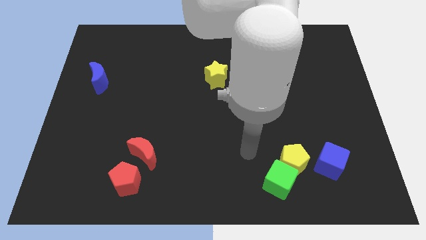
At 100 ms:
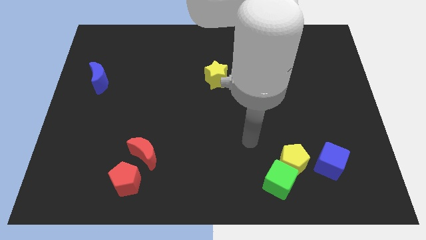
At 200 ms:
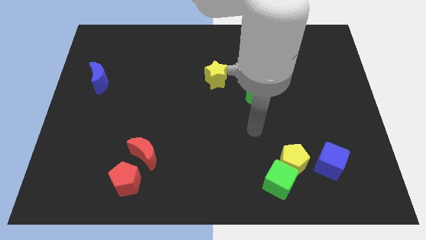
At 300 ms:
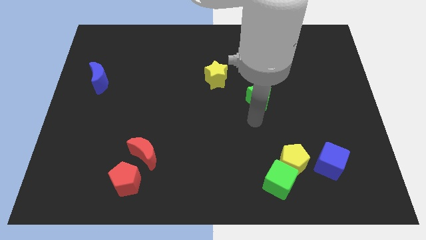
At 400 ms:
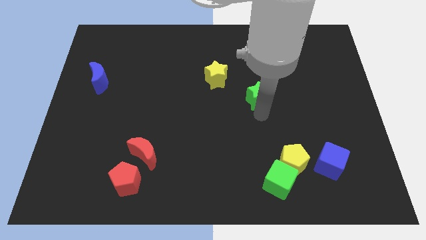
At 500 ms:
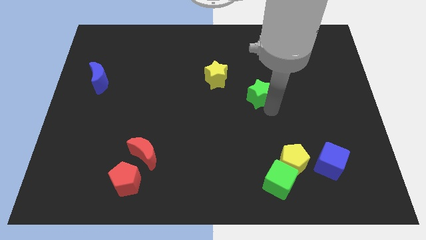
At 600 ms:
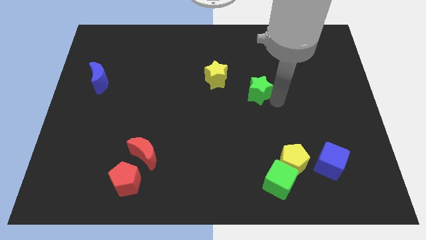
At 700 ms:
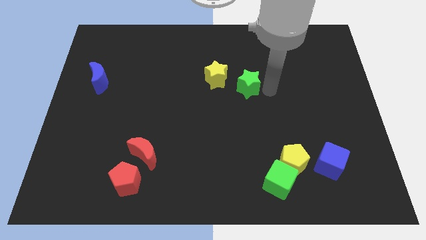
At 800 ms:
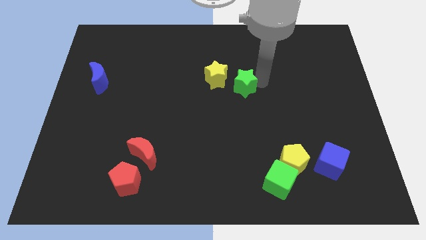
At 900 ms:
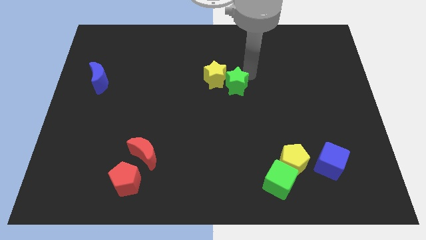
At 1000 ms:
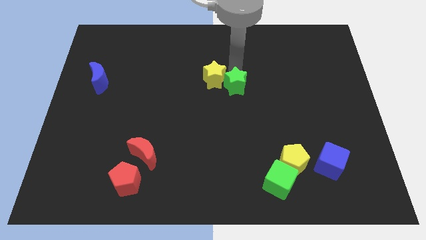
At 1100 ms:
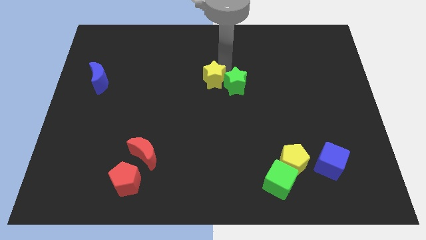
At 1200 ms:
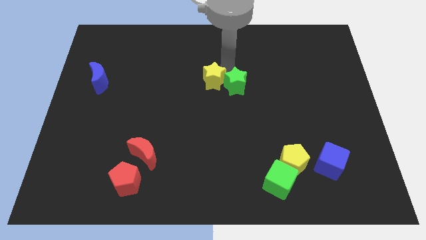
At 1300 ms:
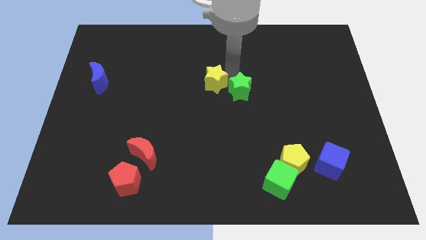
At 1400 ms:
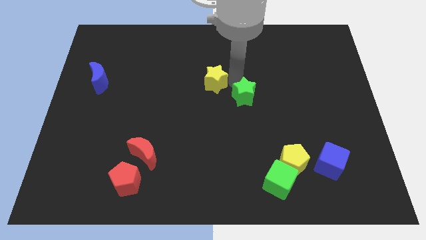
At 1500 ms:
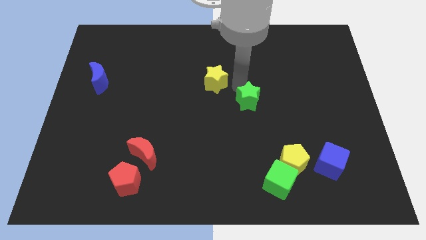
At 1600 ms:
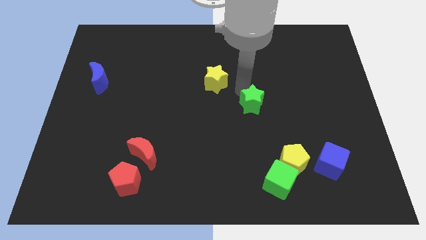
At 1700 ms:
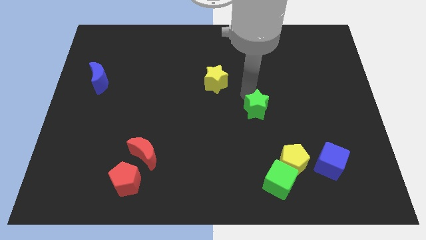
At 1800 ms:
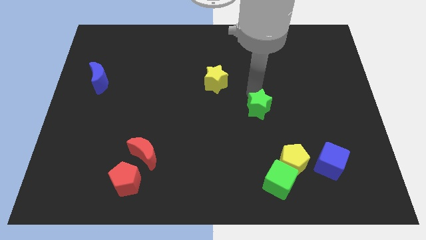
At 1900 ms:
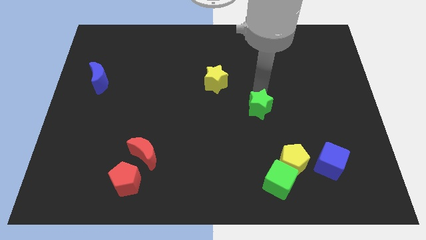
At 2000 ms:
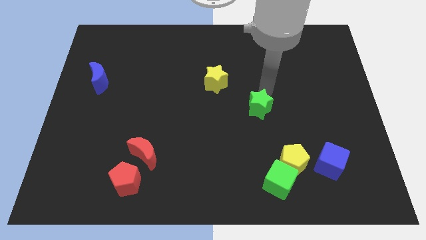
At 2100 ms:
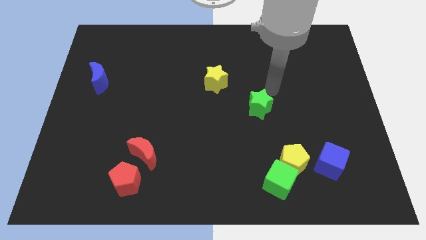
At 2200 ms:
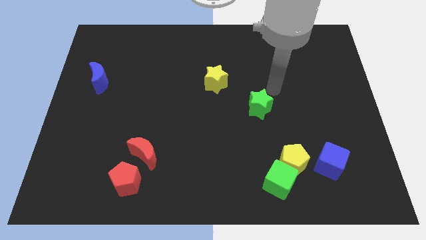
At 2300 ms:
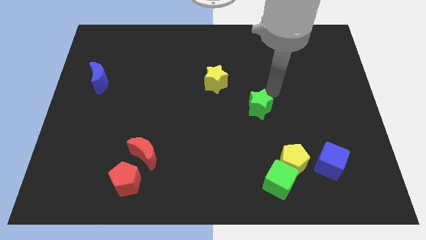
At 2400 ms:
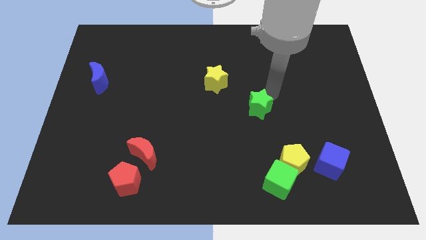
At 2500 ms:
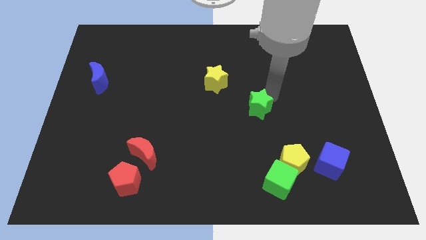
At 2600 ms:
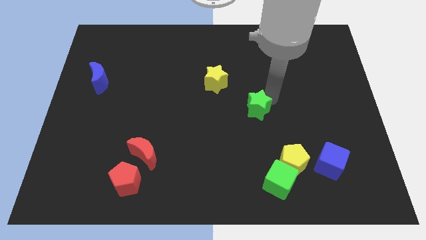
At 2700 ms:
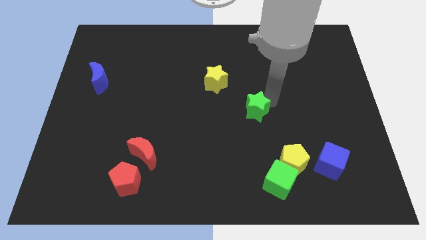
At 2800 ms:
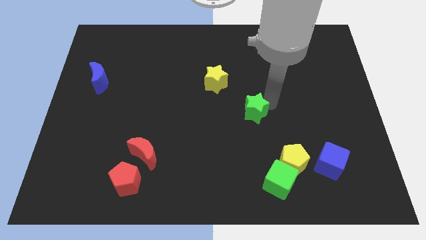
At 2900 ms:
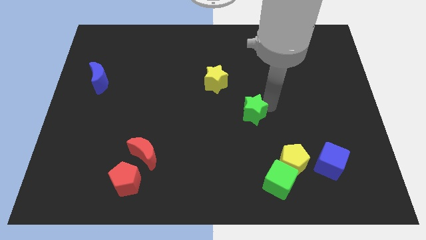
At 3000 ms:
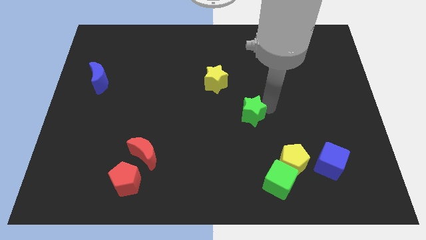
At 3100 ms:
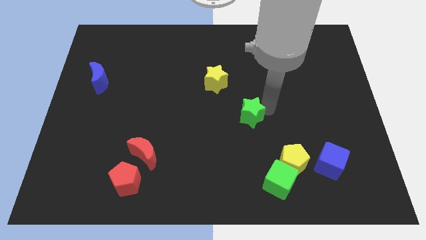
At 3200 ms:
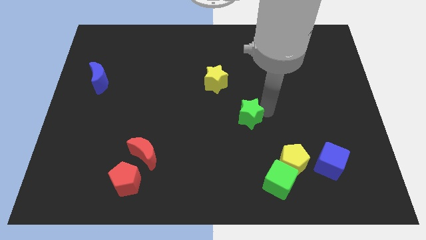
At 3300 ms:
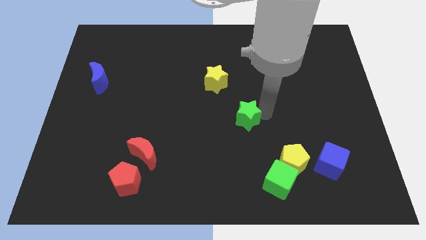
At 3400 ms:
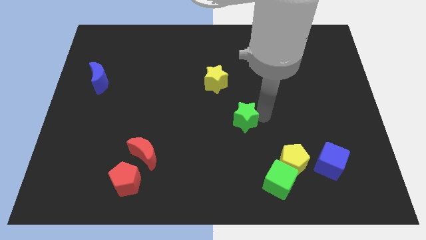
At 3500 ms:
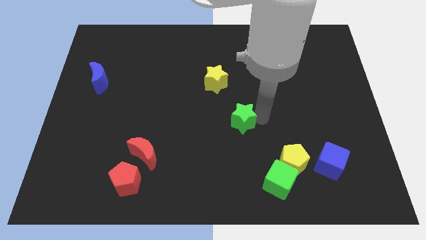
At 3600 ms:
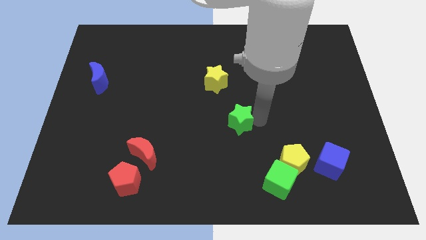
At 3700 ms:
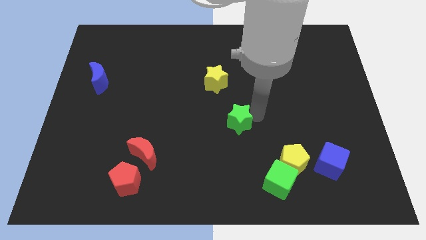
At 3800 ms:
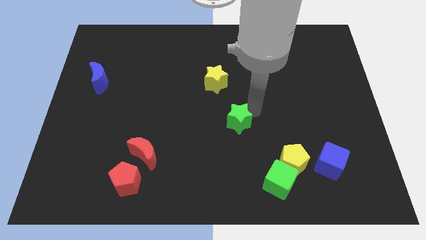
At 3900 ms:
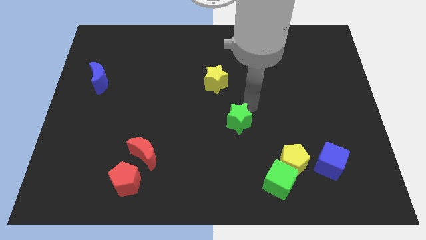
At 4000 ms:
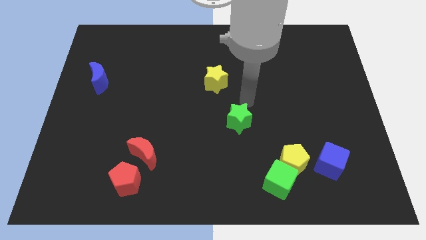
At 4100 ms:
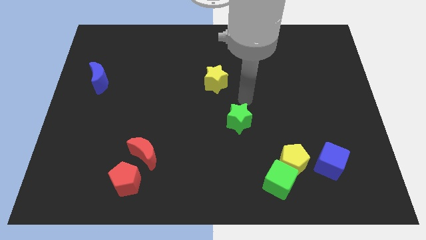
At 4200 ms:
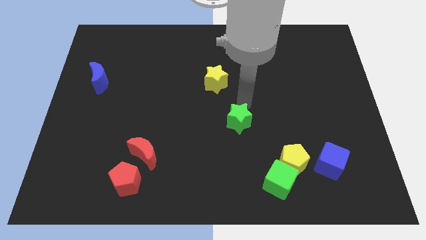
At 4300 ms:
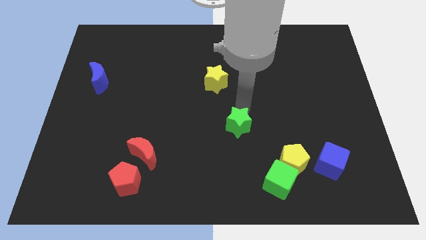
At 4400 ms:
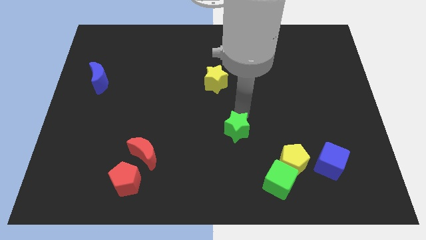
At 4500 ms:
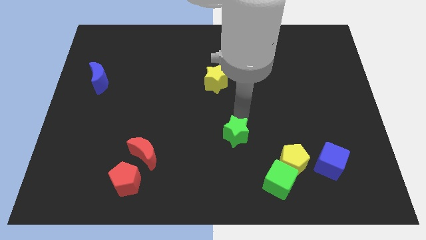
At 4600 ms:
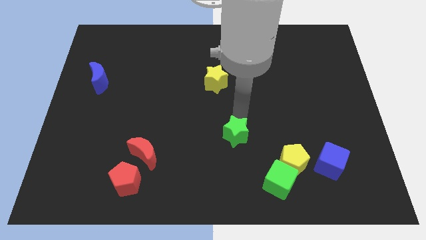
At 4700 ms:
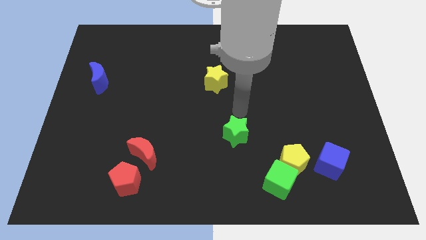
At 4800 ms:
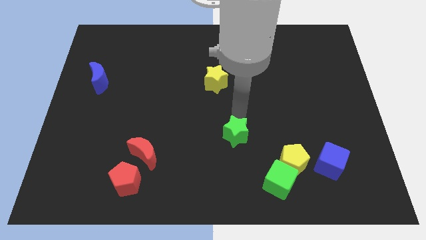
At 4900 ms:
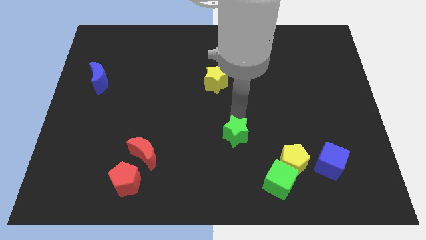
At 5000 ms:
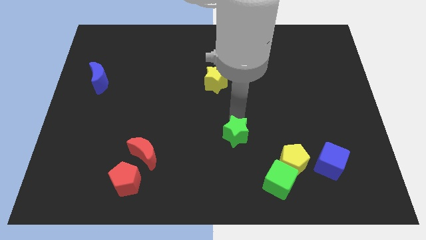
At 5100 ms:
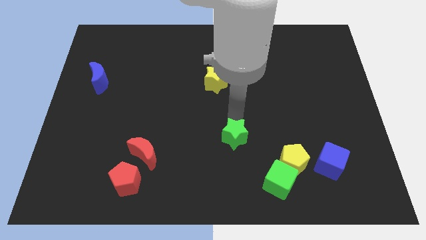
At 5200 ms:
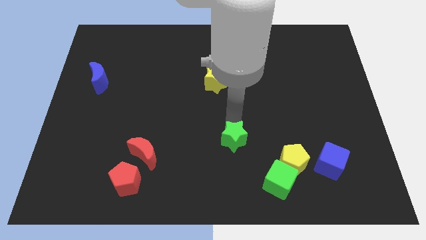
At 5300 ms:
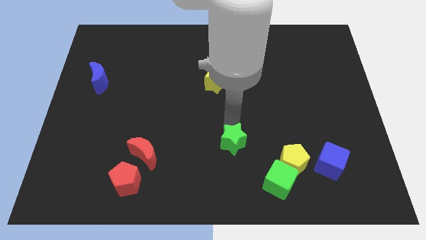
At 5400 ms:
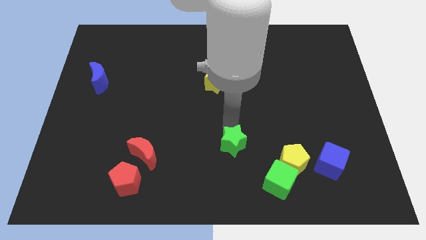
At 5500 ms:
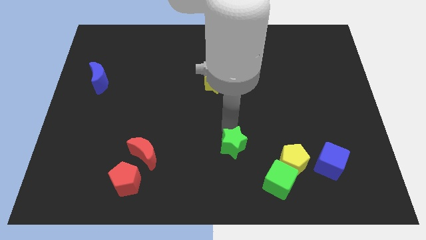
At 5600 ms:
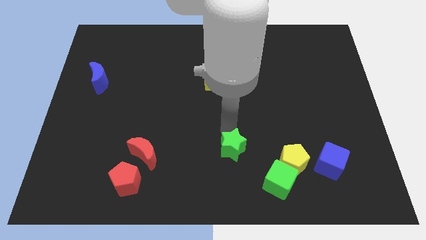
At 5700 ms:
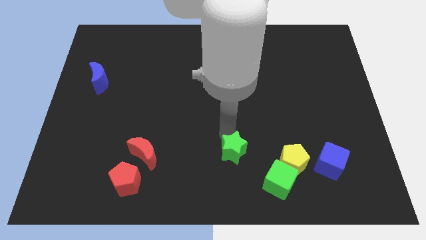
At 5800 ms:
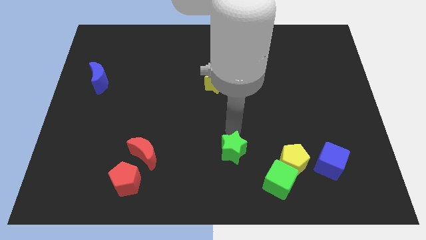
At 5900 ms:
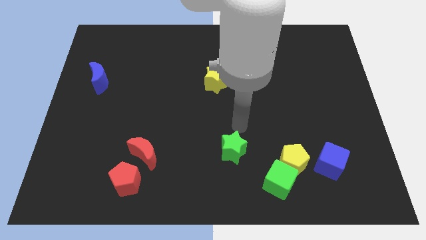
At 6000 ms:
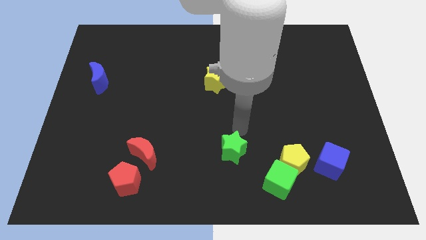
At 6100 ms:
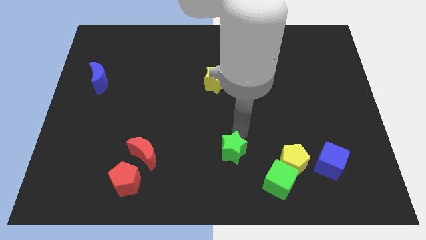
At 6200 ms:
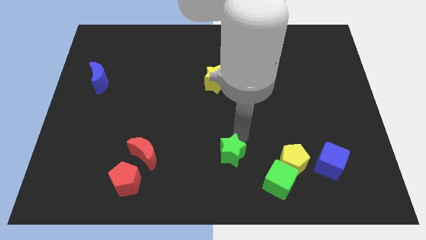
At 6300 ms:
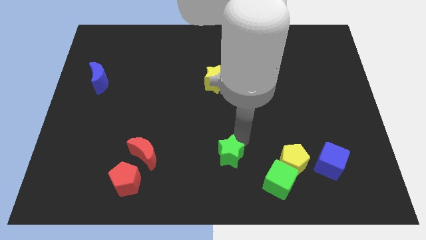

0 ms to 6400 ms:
push the green star to the bottom side
